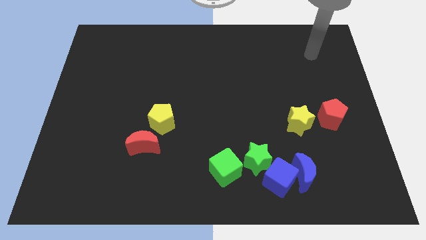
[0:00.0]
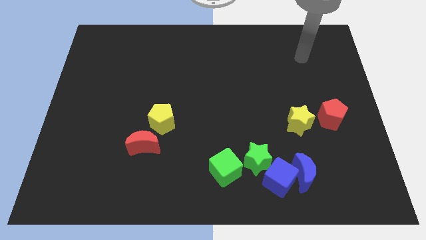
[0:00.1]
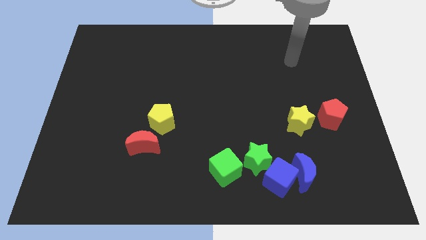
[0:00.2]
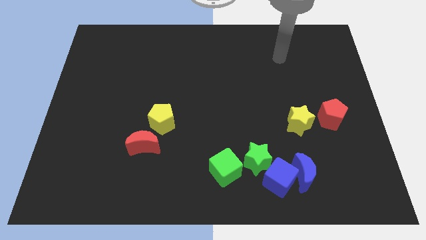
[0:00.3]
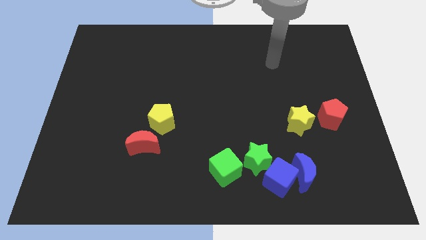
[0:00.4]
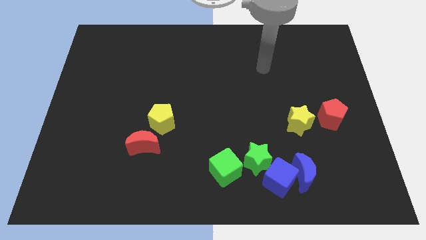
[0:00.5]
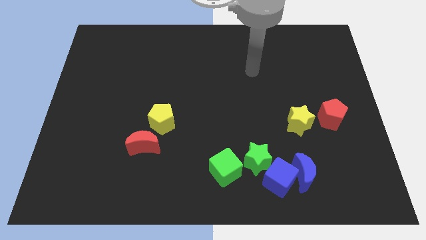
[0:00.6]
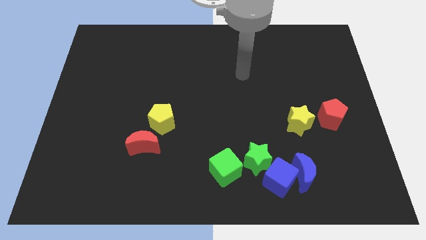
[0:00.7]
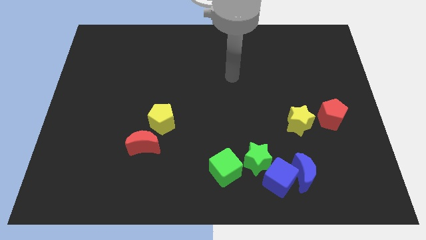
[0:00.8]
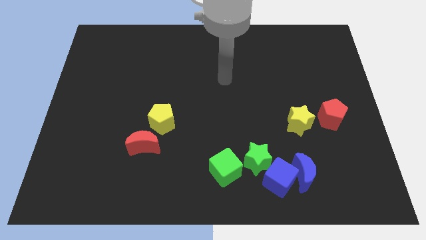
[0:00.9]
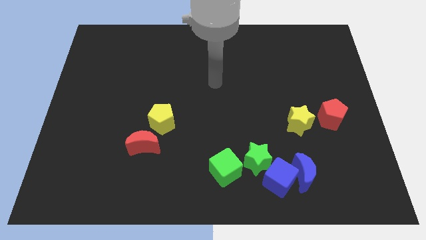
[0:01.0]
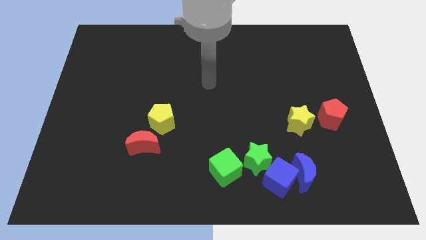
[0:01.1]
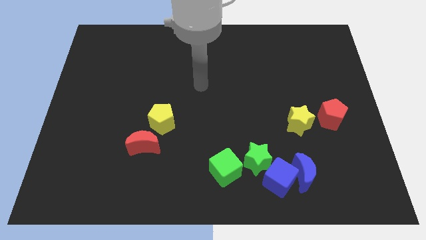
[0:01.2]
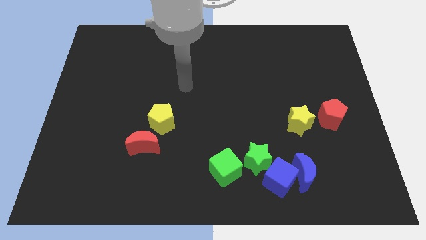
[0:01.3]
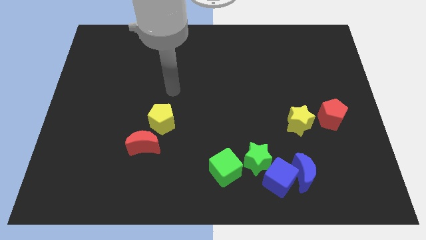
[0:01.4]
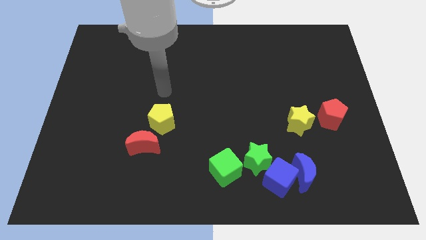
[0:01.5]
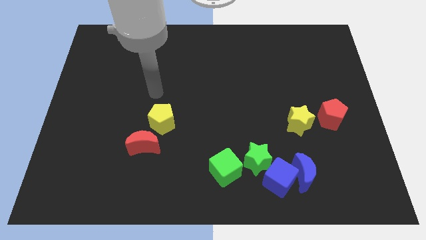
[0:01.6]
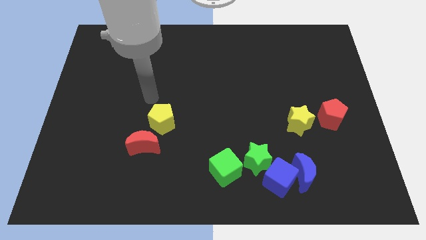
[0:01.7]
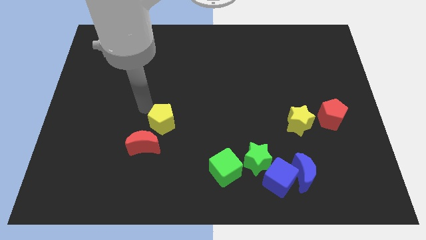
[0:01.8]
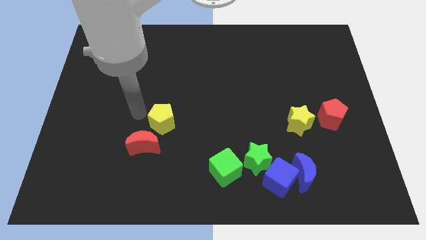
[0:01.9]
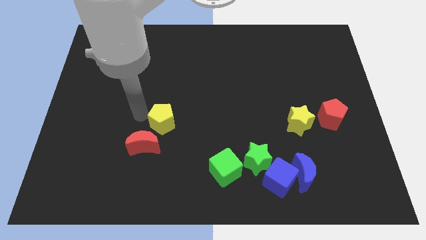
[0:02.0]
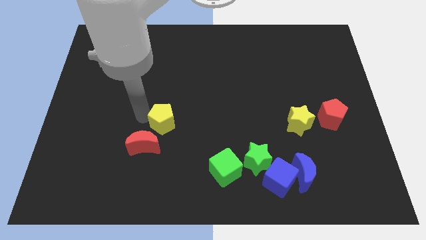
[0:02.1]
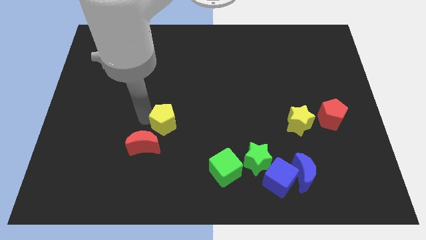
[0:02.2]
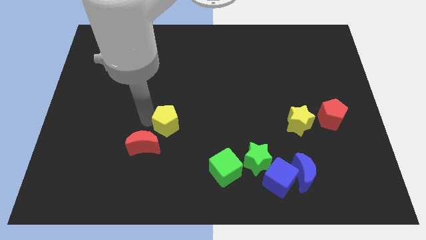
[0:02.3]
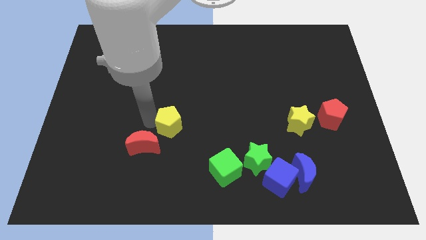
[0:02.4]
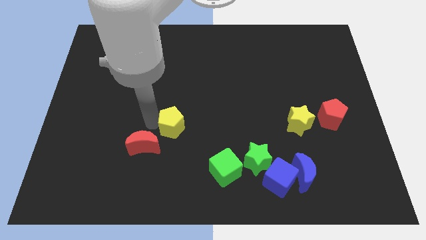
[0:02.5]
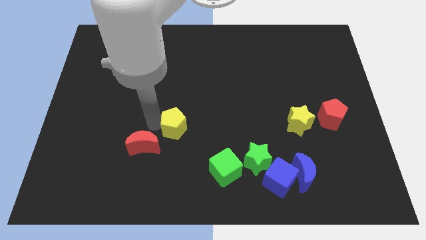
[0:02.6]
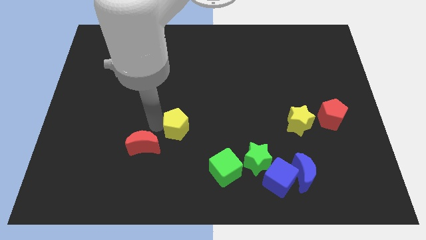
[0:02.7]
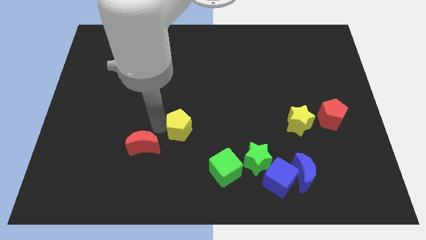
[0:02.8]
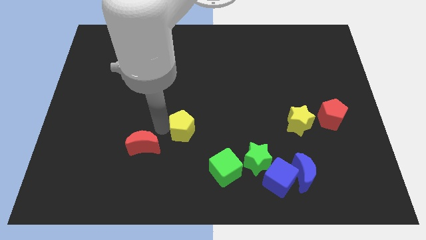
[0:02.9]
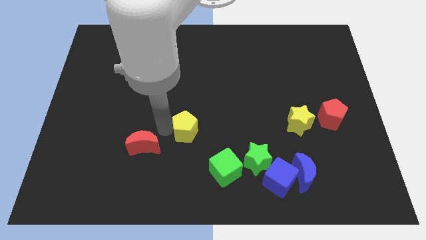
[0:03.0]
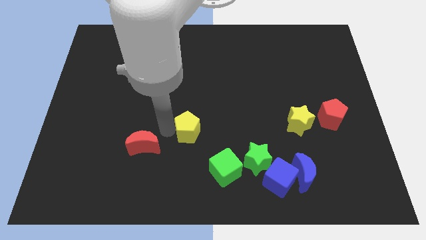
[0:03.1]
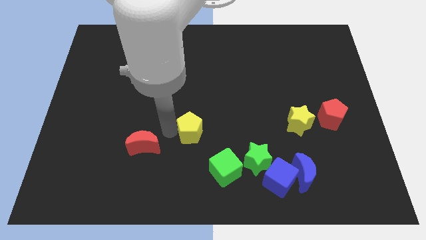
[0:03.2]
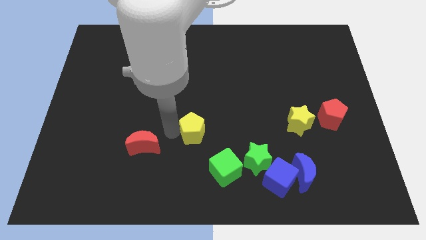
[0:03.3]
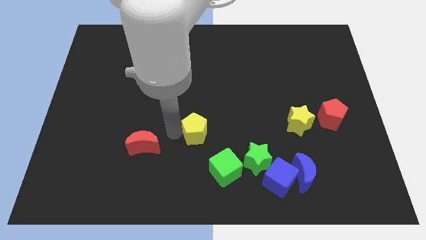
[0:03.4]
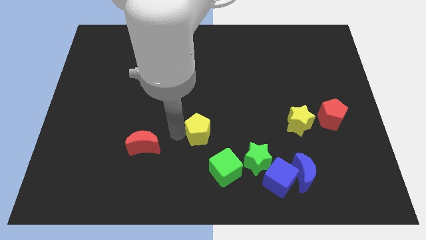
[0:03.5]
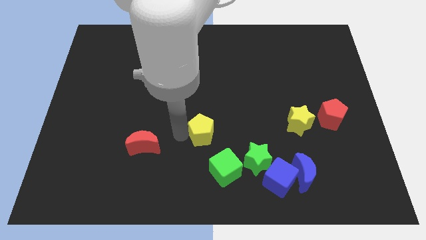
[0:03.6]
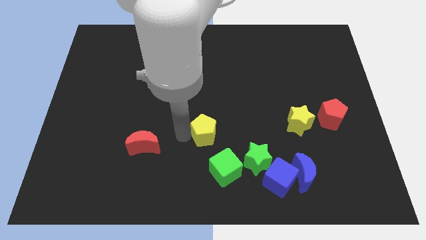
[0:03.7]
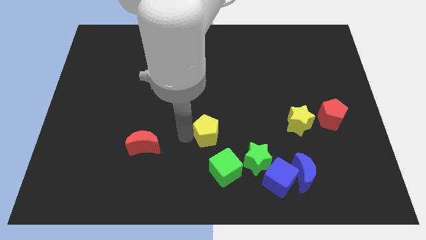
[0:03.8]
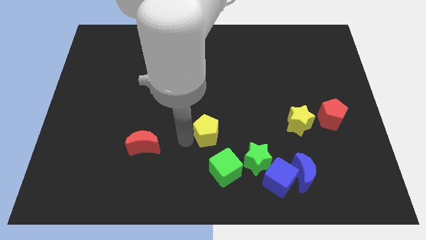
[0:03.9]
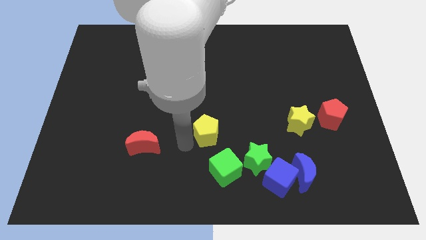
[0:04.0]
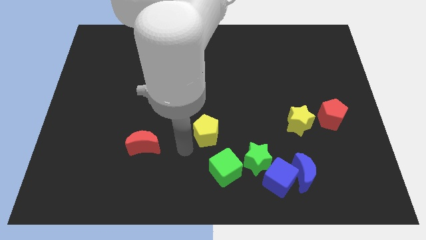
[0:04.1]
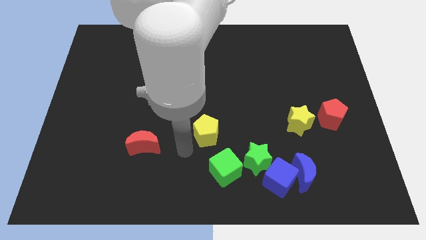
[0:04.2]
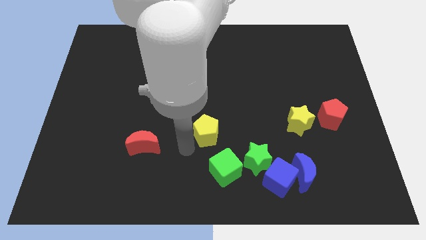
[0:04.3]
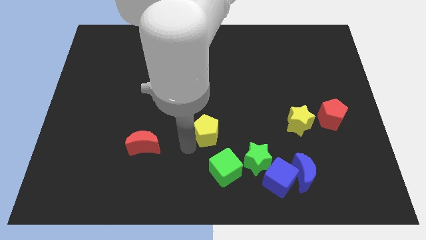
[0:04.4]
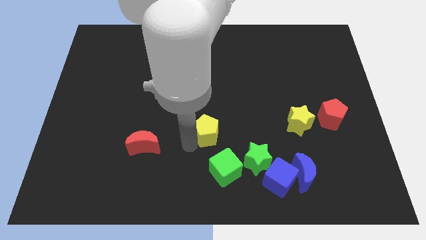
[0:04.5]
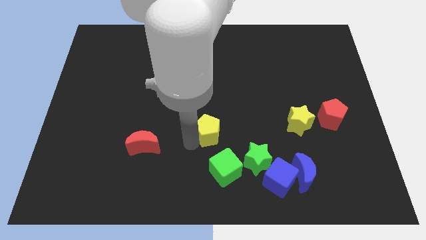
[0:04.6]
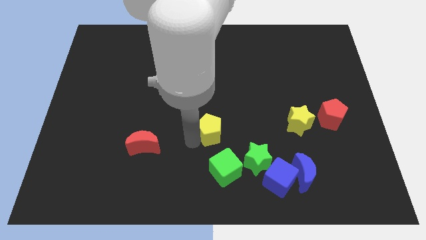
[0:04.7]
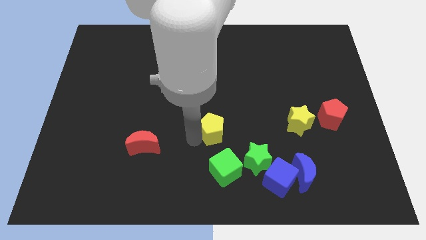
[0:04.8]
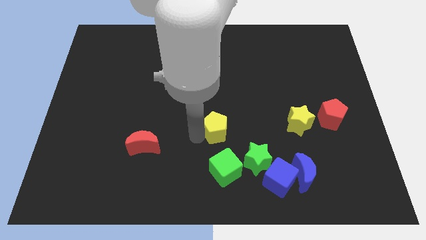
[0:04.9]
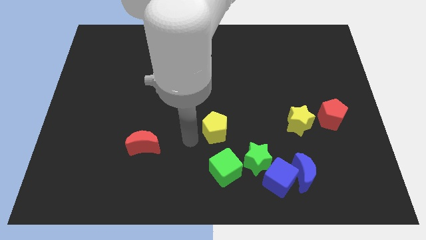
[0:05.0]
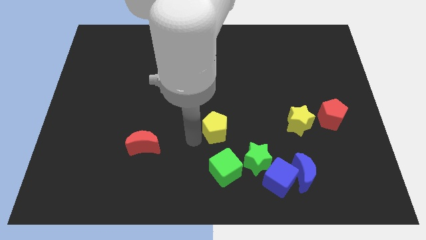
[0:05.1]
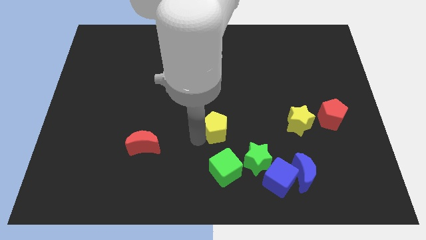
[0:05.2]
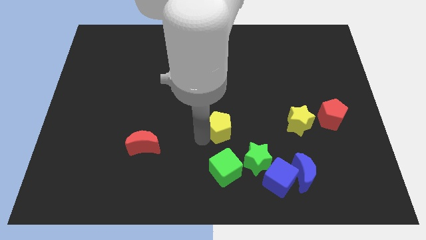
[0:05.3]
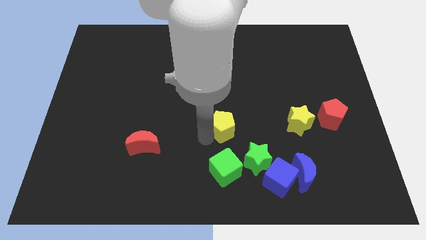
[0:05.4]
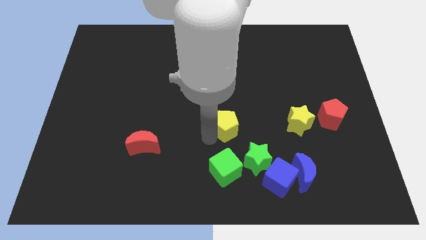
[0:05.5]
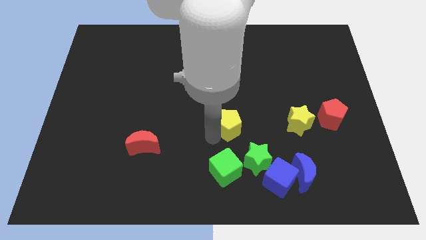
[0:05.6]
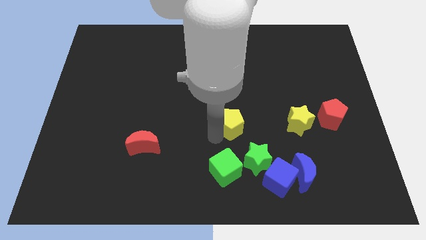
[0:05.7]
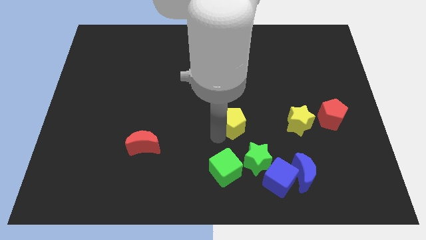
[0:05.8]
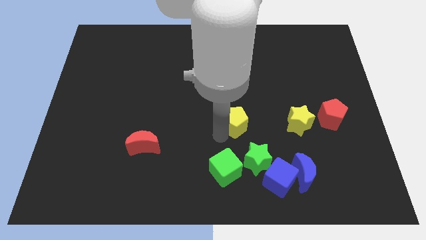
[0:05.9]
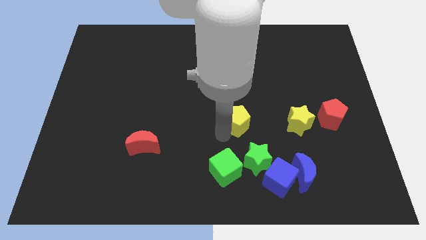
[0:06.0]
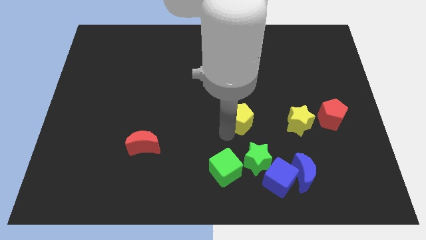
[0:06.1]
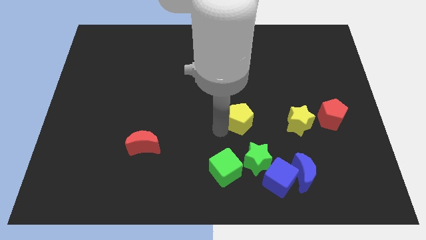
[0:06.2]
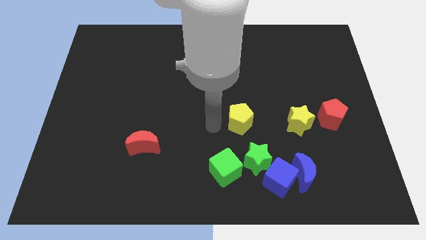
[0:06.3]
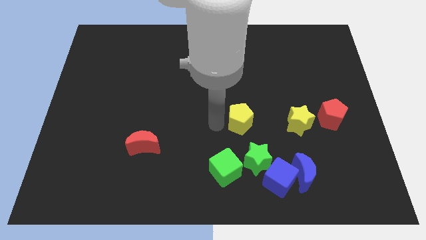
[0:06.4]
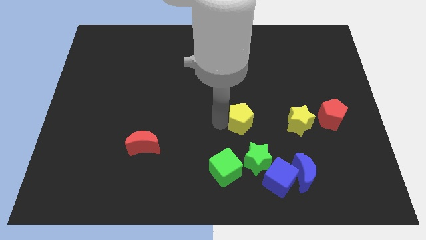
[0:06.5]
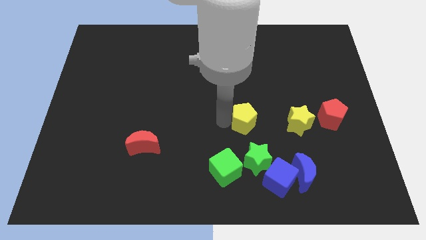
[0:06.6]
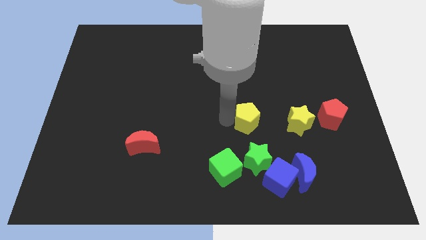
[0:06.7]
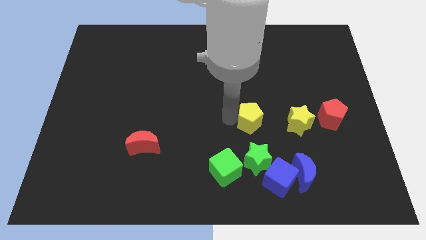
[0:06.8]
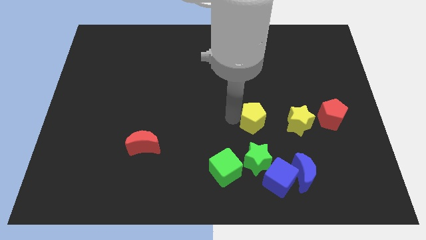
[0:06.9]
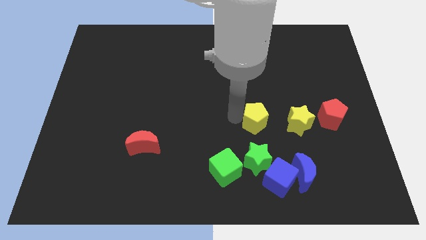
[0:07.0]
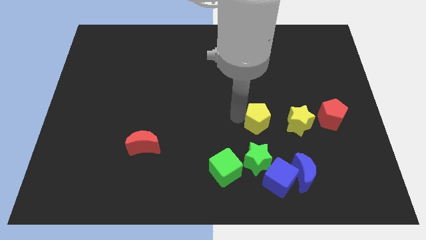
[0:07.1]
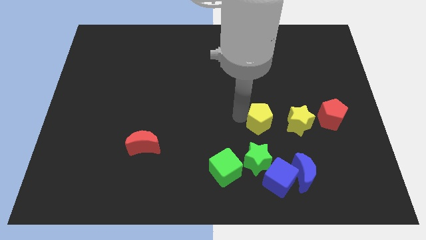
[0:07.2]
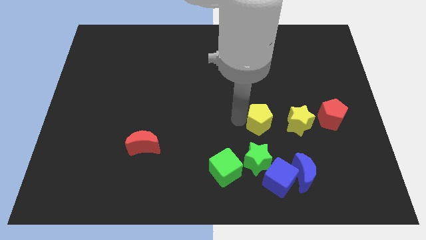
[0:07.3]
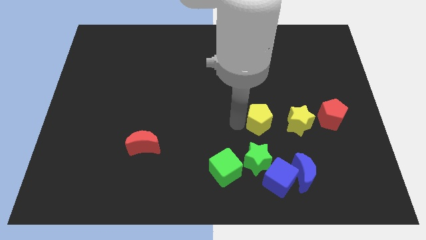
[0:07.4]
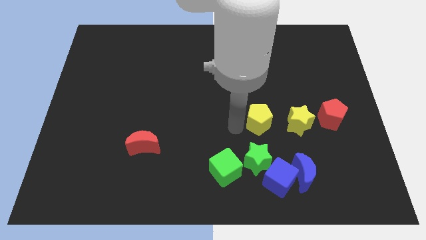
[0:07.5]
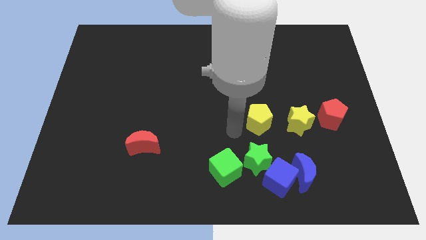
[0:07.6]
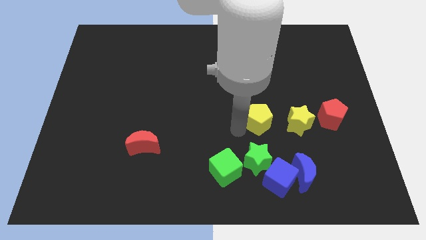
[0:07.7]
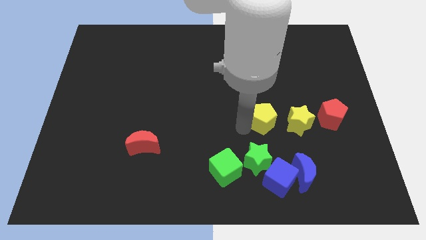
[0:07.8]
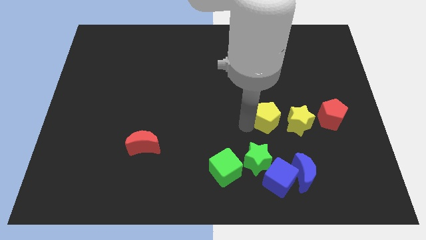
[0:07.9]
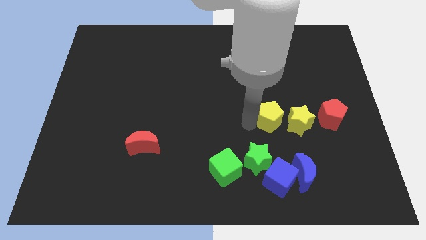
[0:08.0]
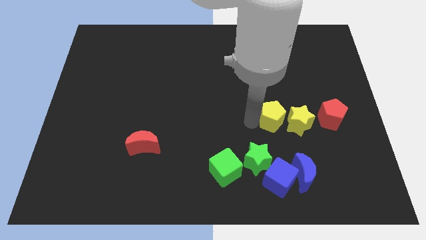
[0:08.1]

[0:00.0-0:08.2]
put the yellow pentagon close to the yellow star
